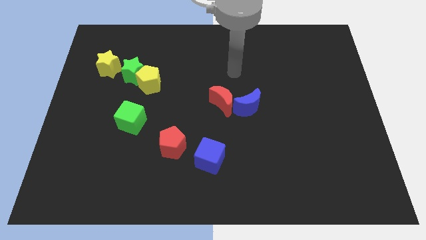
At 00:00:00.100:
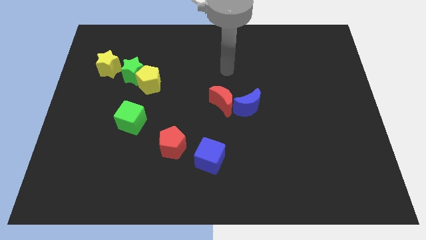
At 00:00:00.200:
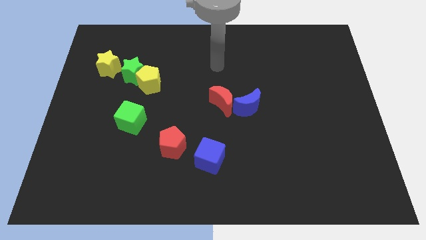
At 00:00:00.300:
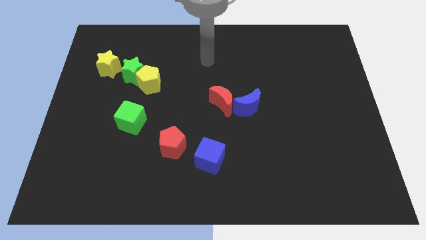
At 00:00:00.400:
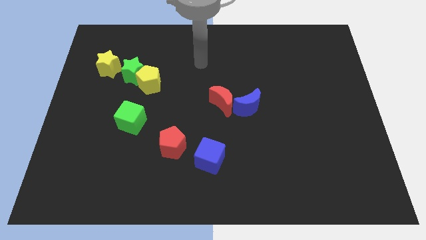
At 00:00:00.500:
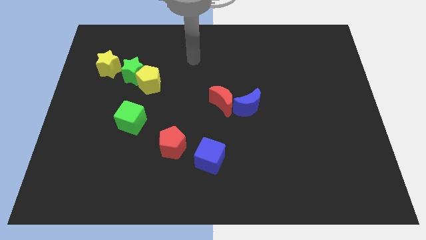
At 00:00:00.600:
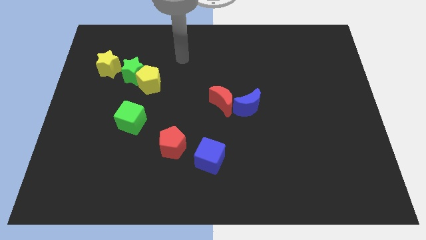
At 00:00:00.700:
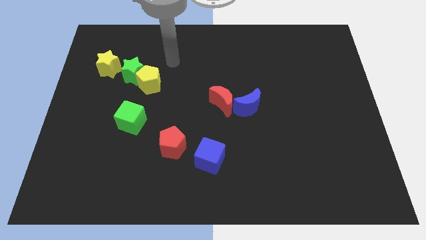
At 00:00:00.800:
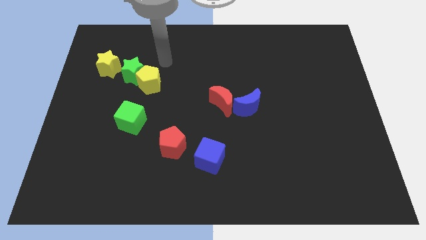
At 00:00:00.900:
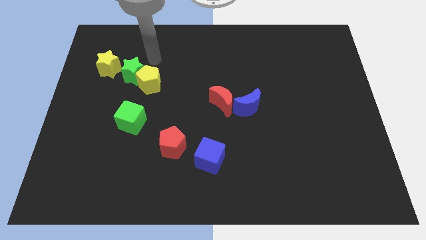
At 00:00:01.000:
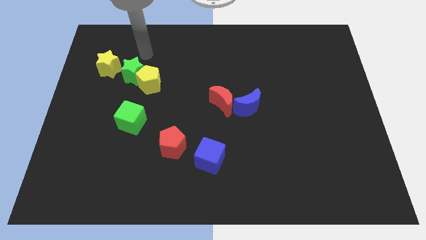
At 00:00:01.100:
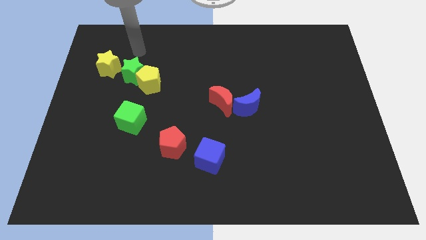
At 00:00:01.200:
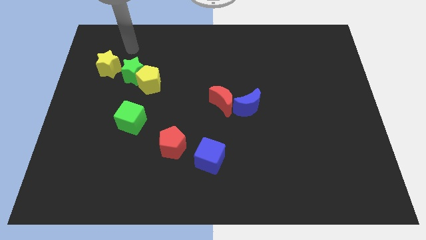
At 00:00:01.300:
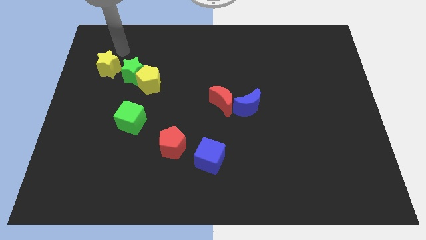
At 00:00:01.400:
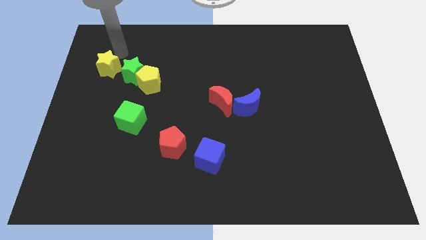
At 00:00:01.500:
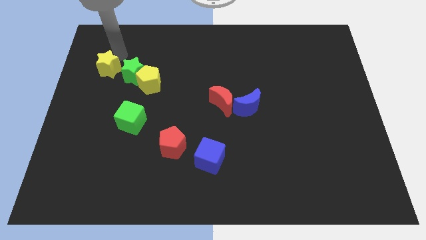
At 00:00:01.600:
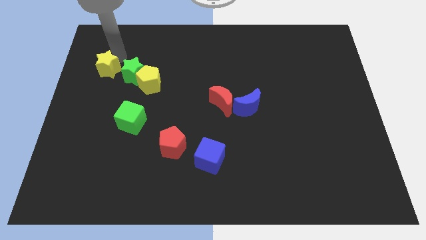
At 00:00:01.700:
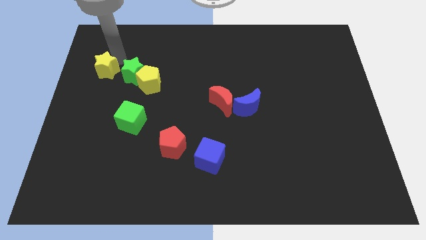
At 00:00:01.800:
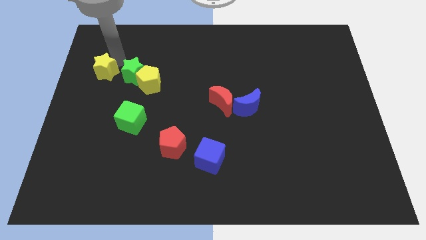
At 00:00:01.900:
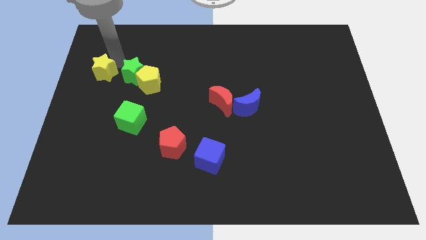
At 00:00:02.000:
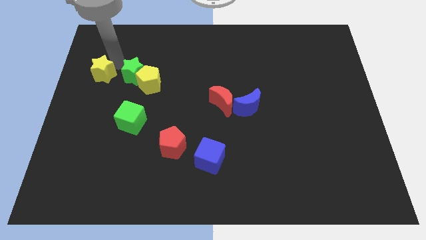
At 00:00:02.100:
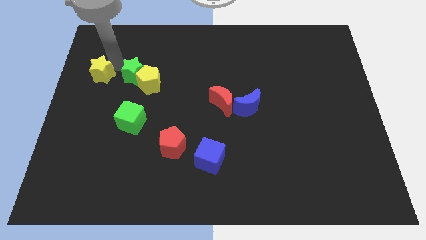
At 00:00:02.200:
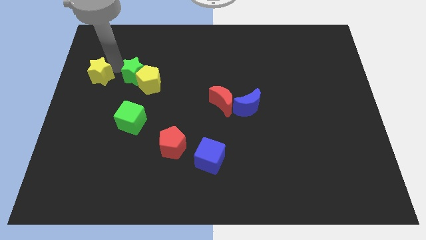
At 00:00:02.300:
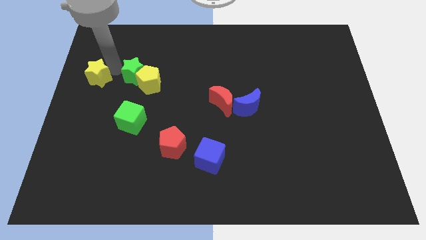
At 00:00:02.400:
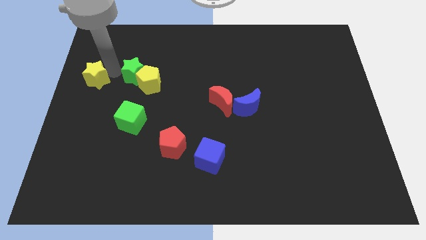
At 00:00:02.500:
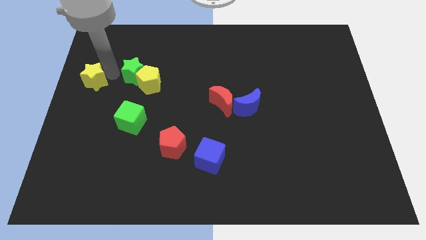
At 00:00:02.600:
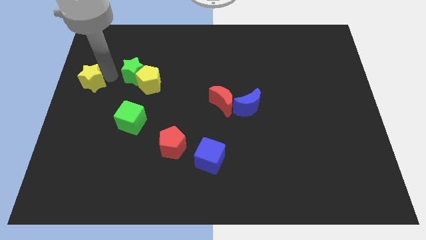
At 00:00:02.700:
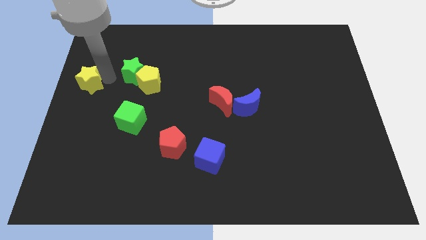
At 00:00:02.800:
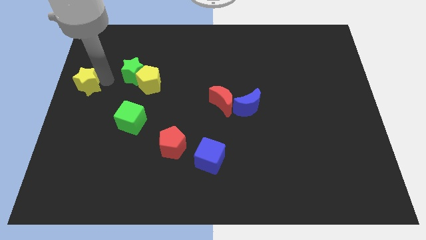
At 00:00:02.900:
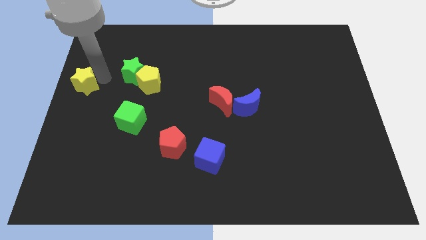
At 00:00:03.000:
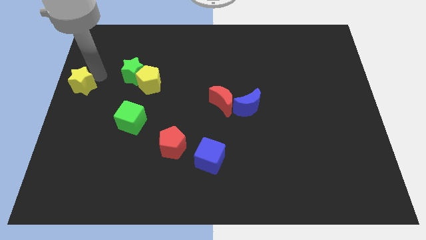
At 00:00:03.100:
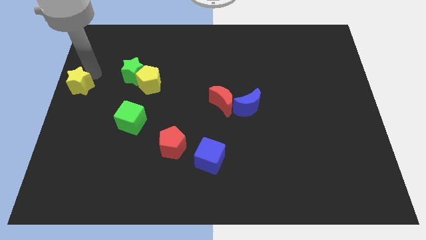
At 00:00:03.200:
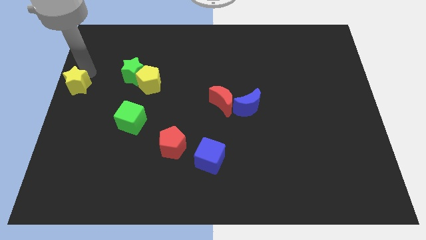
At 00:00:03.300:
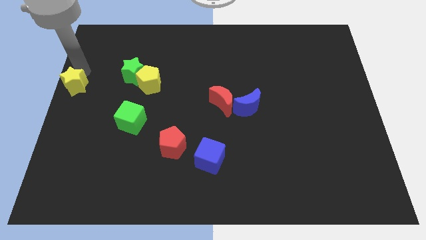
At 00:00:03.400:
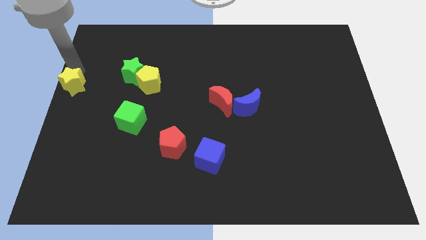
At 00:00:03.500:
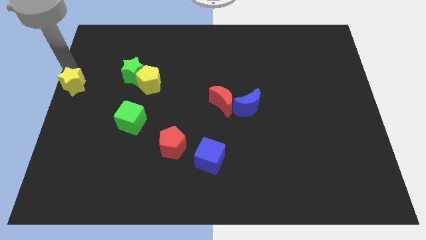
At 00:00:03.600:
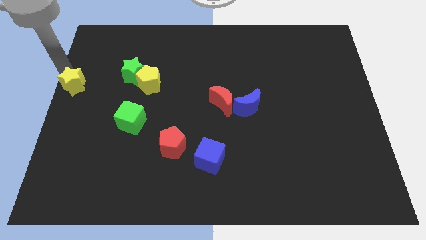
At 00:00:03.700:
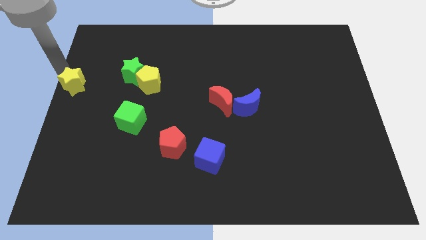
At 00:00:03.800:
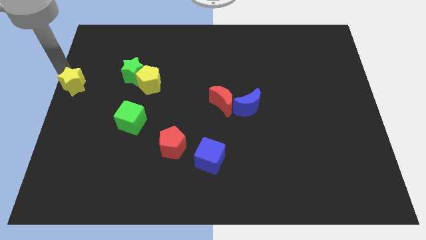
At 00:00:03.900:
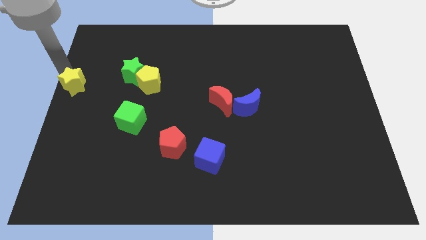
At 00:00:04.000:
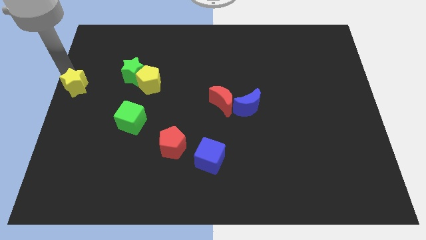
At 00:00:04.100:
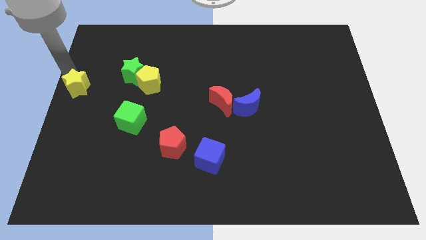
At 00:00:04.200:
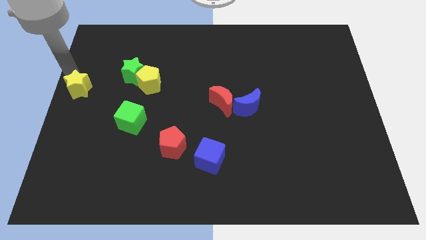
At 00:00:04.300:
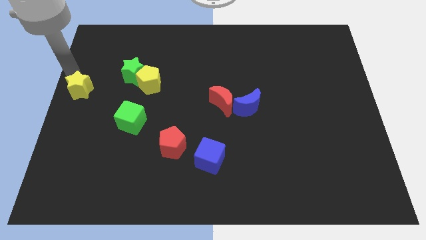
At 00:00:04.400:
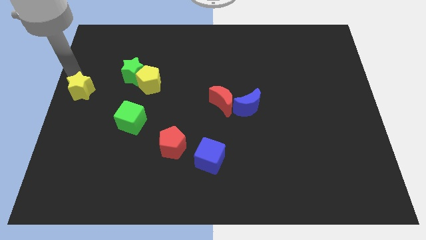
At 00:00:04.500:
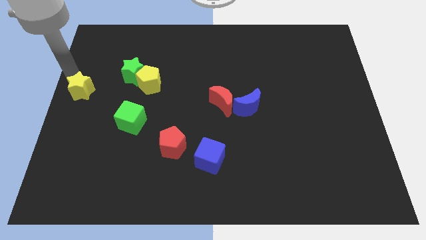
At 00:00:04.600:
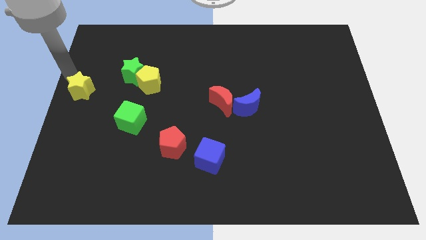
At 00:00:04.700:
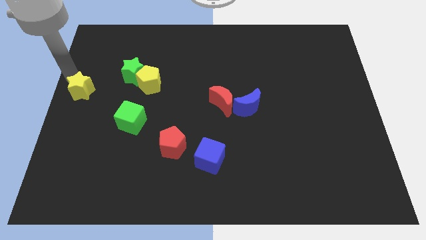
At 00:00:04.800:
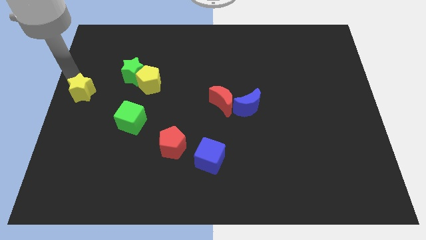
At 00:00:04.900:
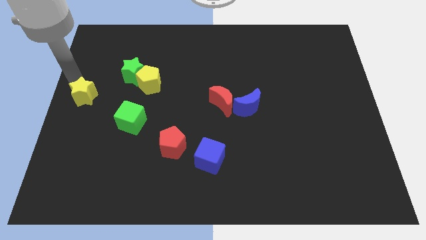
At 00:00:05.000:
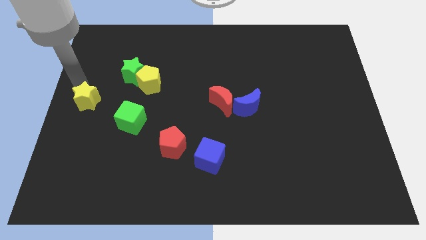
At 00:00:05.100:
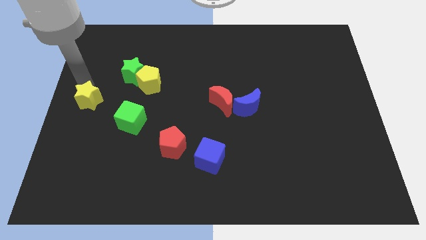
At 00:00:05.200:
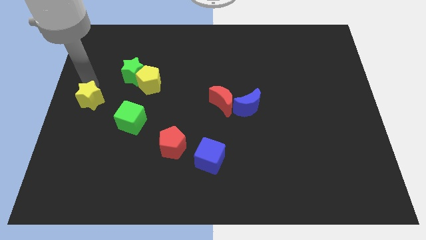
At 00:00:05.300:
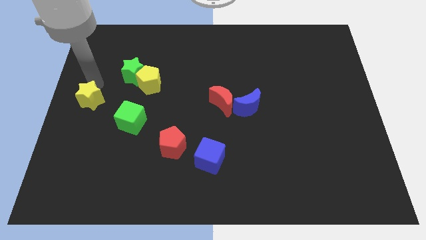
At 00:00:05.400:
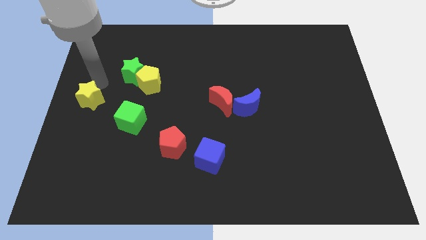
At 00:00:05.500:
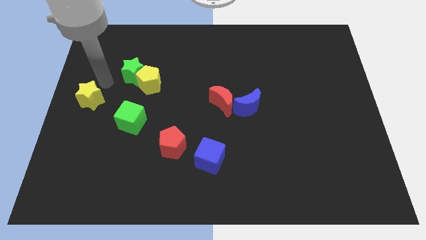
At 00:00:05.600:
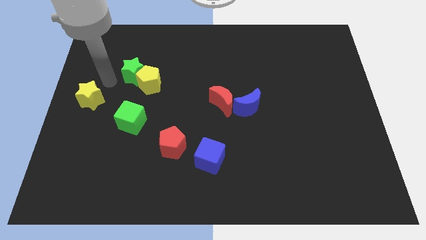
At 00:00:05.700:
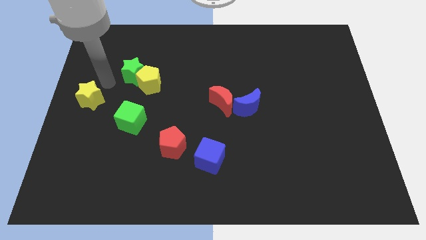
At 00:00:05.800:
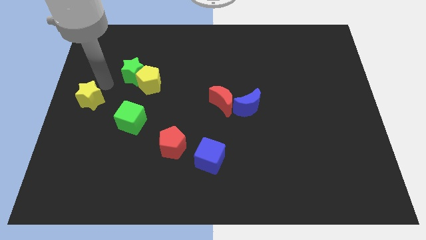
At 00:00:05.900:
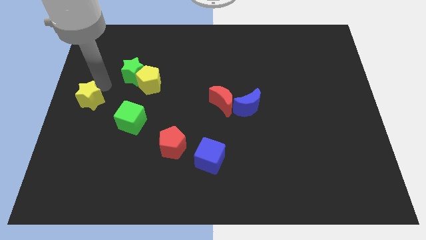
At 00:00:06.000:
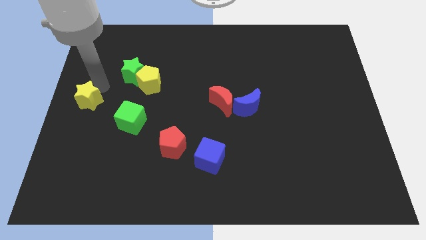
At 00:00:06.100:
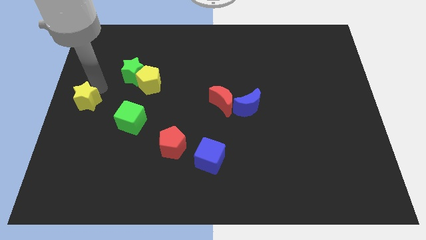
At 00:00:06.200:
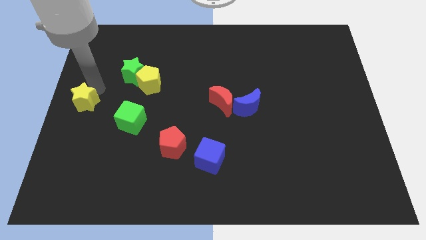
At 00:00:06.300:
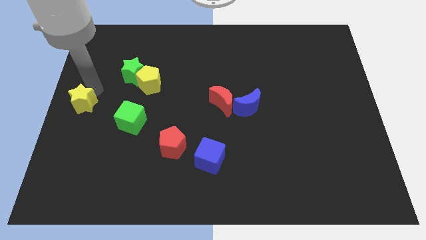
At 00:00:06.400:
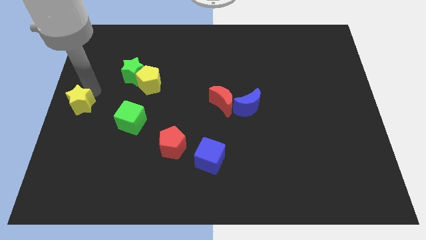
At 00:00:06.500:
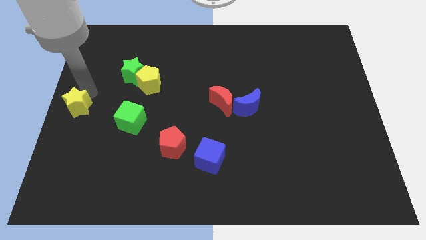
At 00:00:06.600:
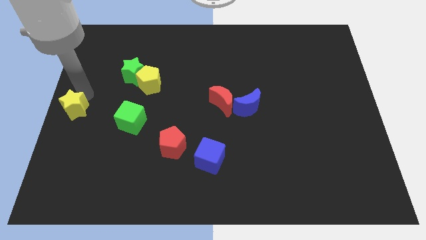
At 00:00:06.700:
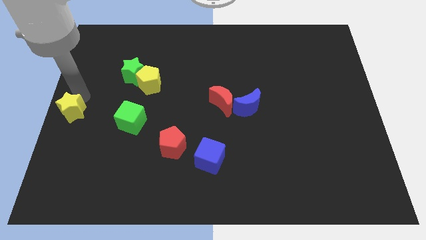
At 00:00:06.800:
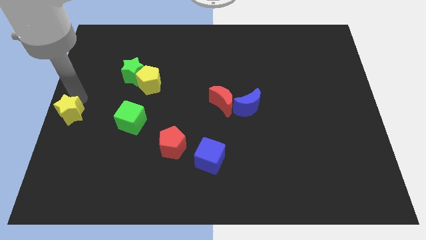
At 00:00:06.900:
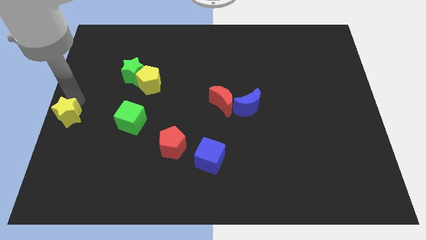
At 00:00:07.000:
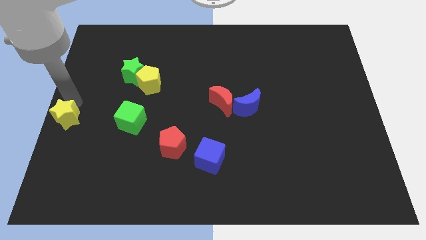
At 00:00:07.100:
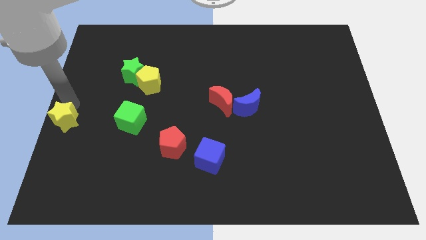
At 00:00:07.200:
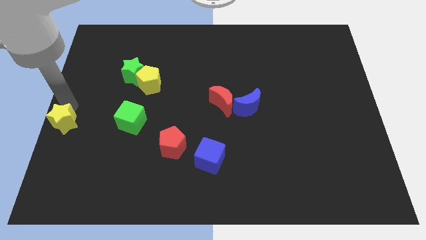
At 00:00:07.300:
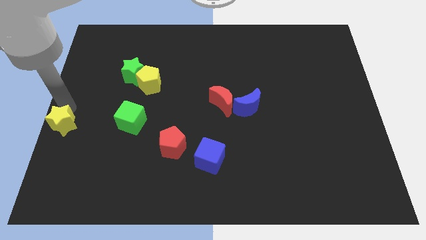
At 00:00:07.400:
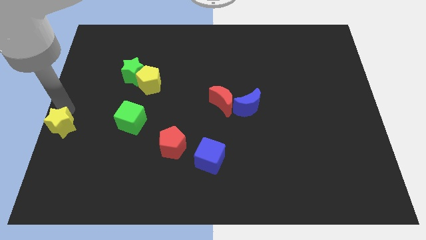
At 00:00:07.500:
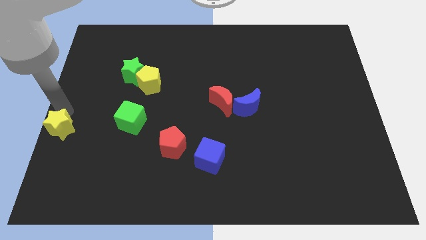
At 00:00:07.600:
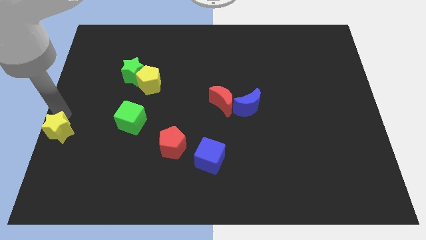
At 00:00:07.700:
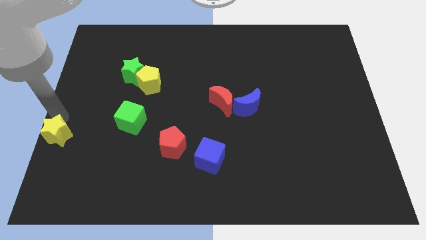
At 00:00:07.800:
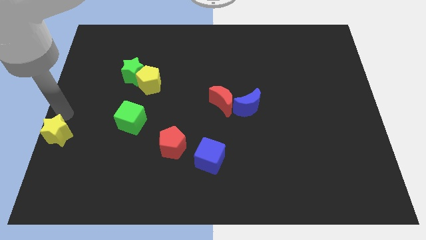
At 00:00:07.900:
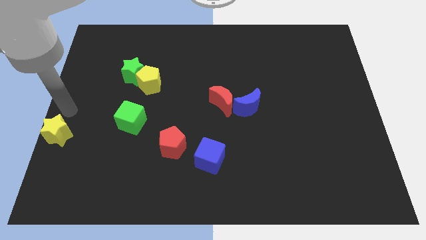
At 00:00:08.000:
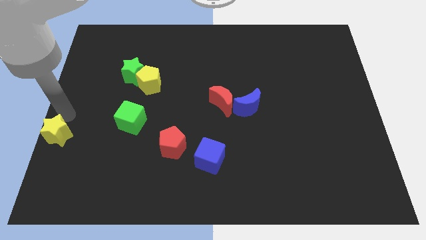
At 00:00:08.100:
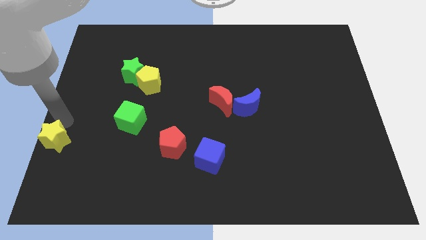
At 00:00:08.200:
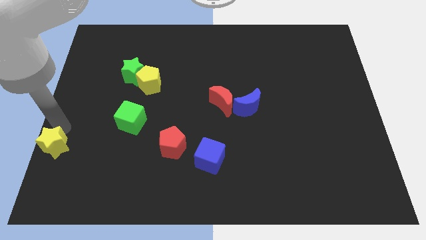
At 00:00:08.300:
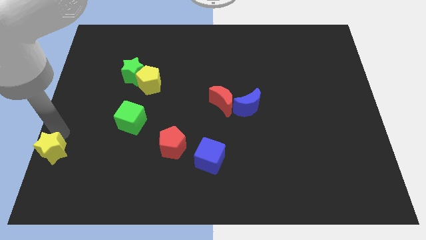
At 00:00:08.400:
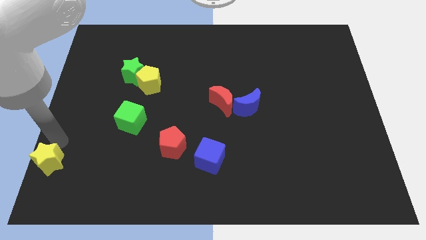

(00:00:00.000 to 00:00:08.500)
move the yellow star to the bottom left corner
